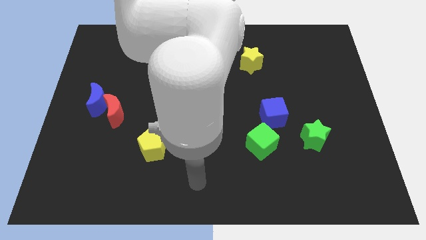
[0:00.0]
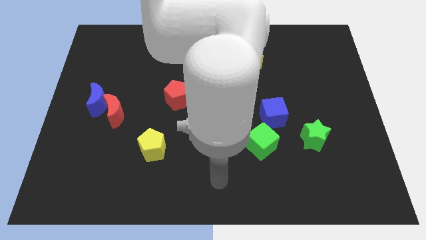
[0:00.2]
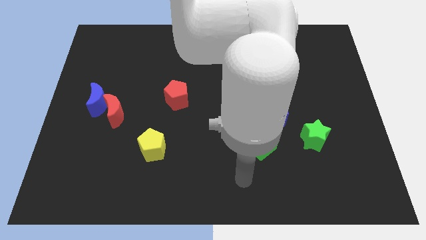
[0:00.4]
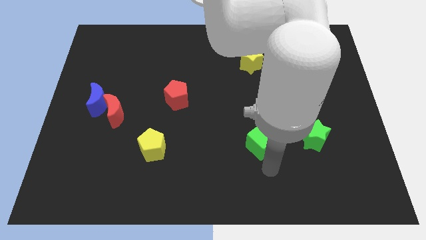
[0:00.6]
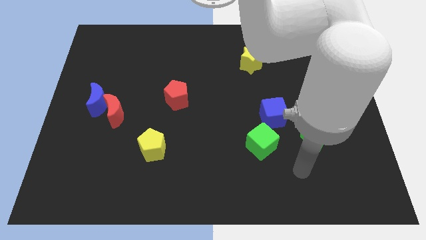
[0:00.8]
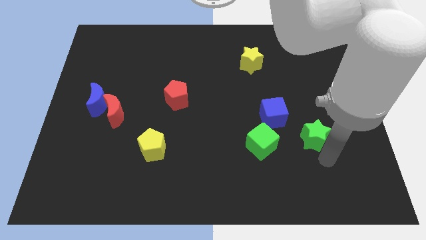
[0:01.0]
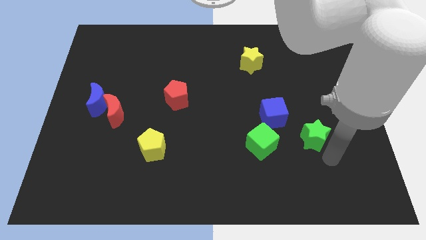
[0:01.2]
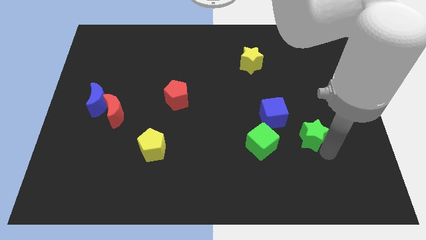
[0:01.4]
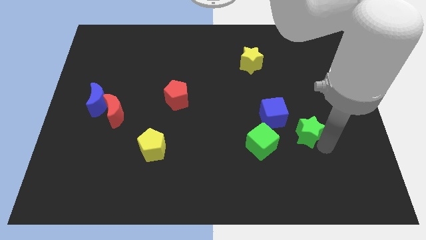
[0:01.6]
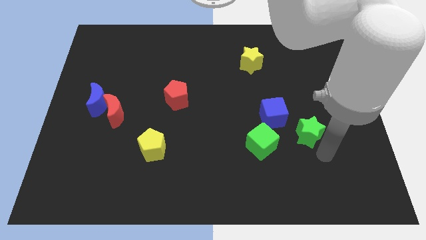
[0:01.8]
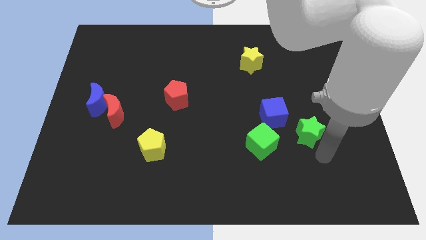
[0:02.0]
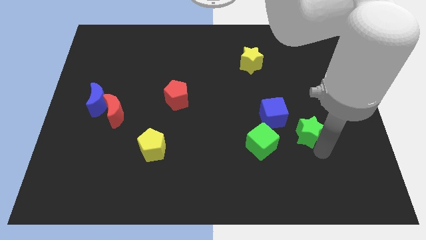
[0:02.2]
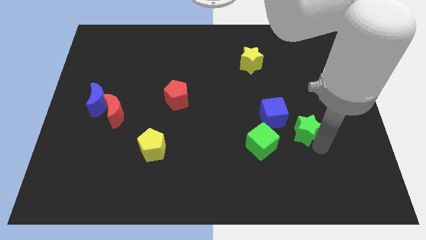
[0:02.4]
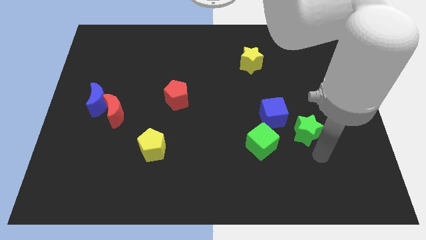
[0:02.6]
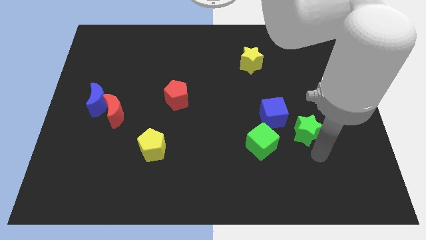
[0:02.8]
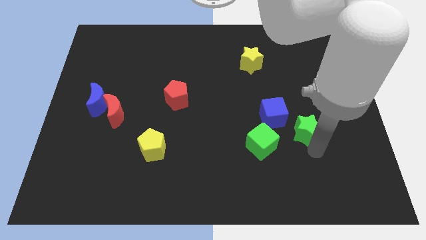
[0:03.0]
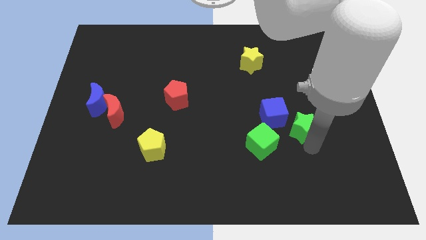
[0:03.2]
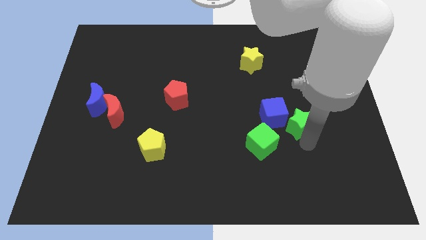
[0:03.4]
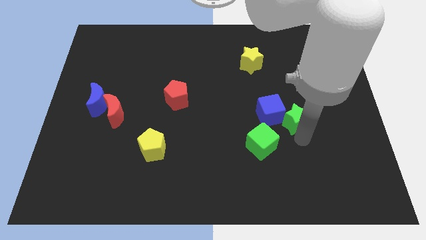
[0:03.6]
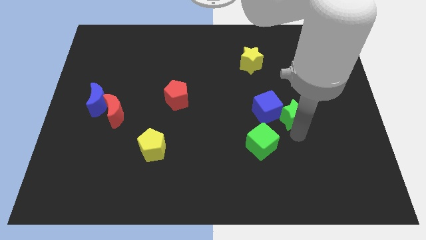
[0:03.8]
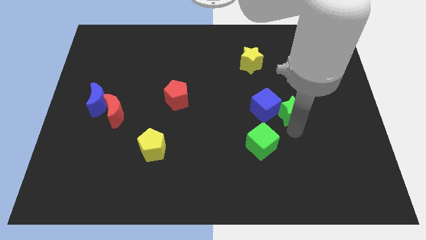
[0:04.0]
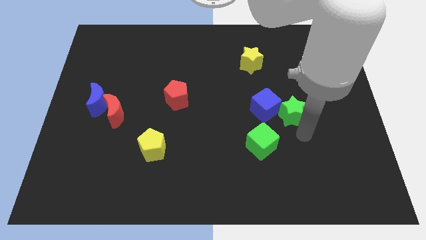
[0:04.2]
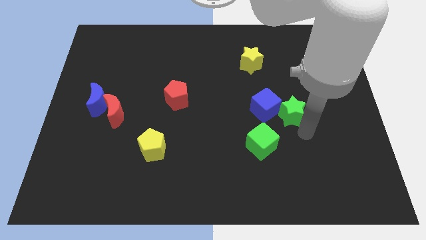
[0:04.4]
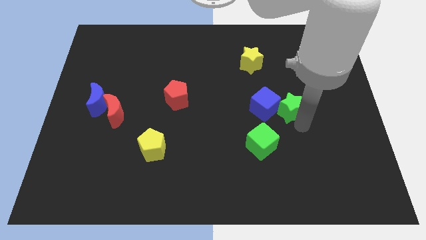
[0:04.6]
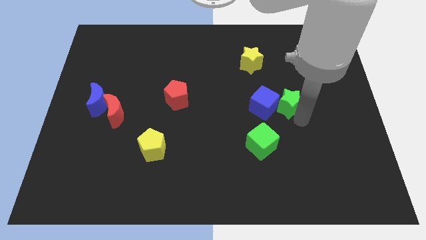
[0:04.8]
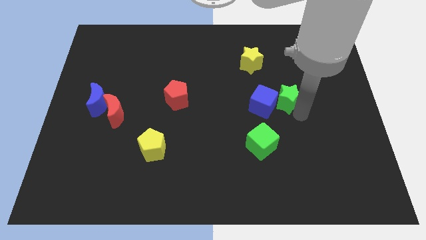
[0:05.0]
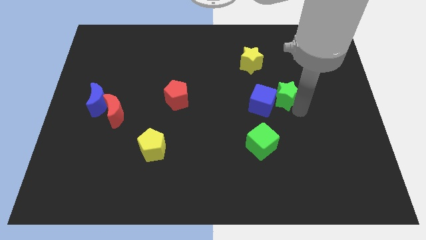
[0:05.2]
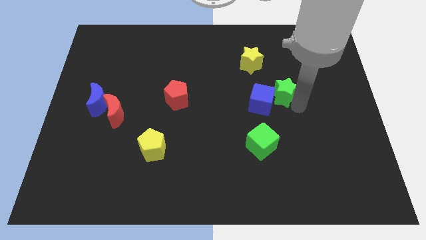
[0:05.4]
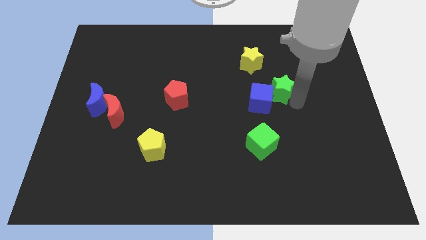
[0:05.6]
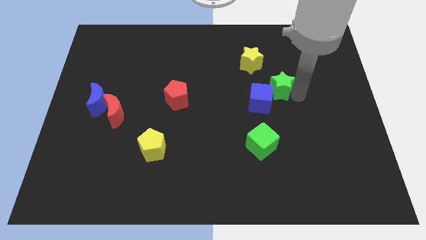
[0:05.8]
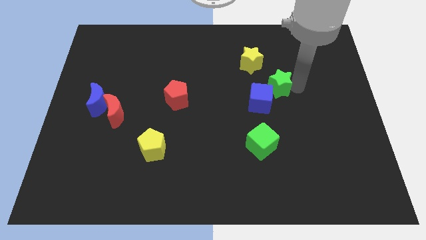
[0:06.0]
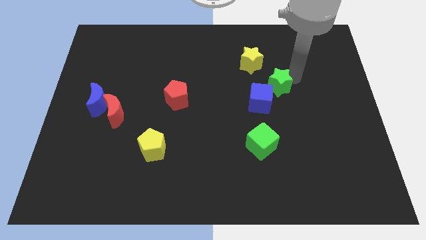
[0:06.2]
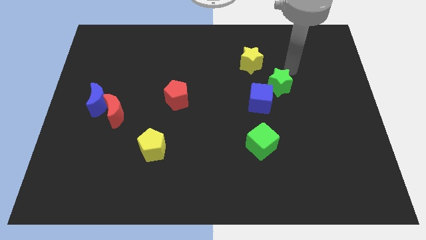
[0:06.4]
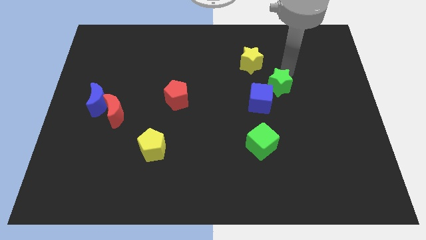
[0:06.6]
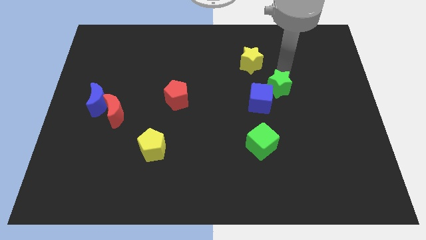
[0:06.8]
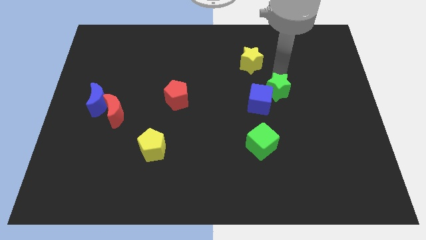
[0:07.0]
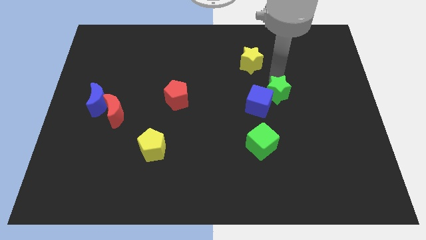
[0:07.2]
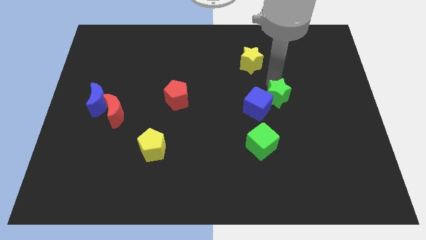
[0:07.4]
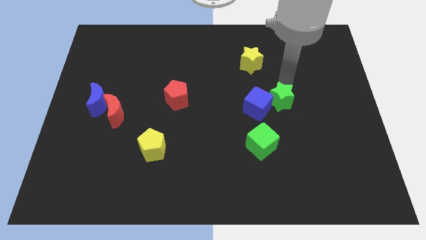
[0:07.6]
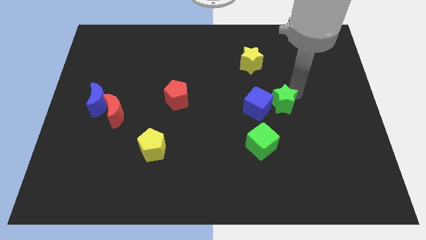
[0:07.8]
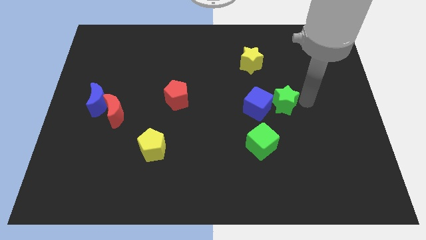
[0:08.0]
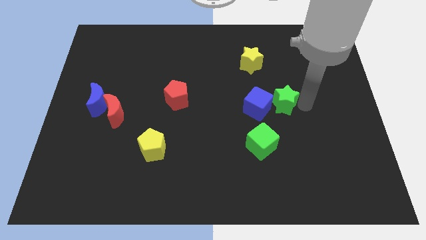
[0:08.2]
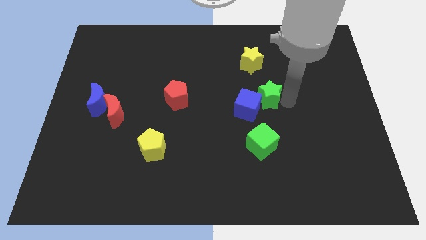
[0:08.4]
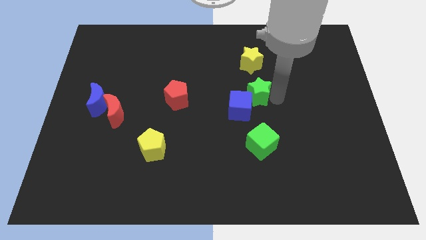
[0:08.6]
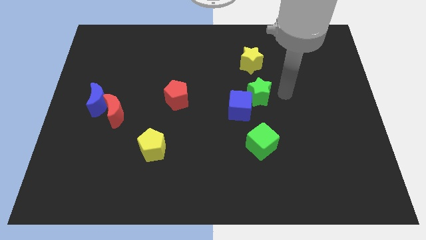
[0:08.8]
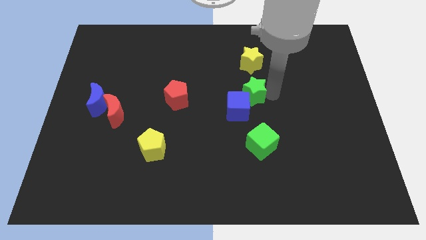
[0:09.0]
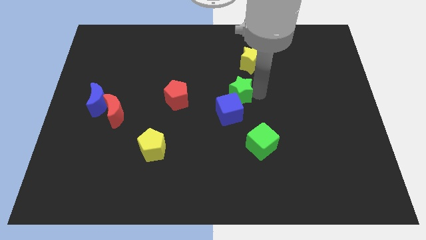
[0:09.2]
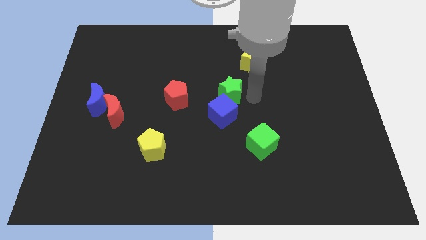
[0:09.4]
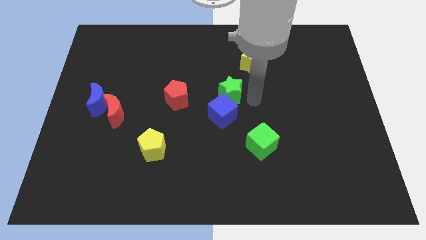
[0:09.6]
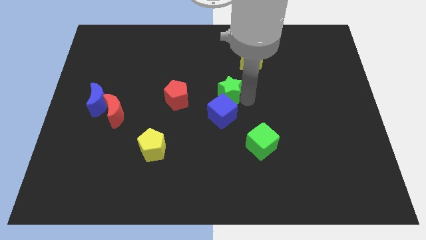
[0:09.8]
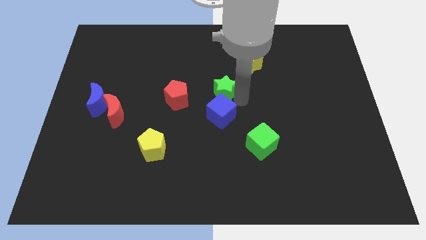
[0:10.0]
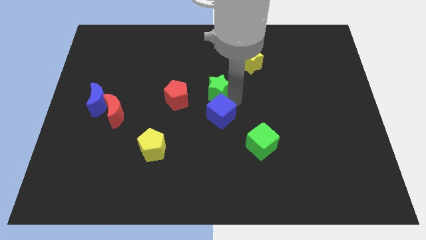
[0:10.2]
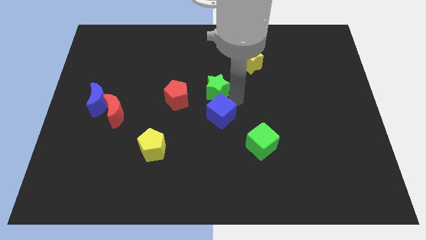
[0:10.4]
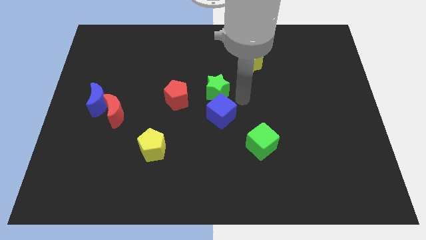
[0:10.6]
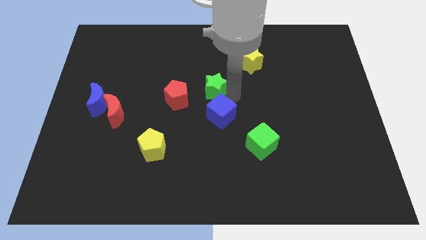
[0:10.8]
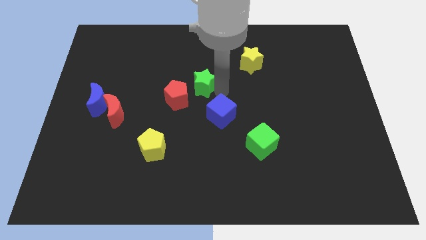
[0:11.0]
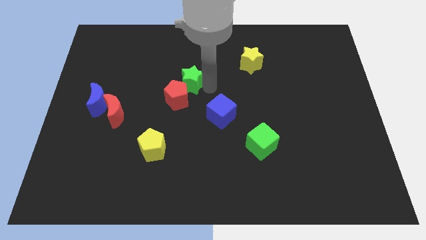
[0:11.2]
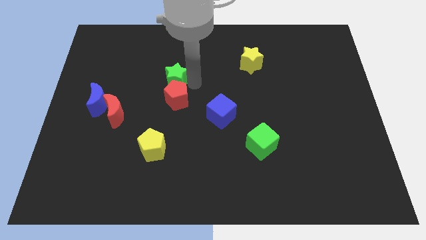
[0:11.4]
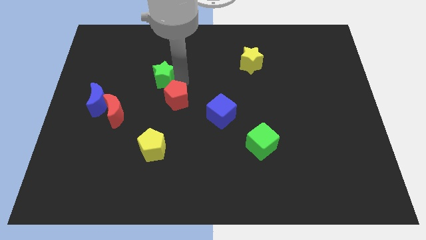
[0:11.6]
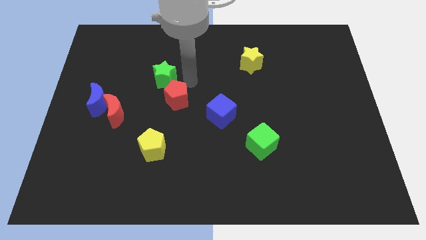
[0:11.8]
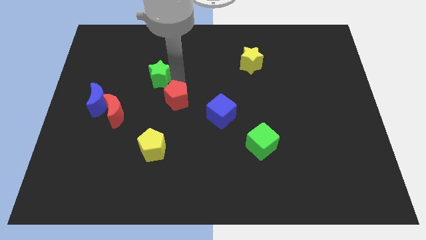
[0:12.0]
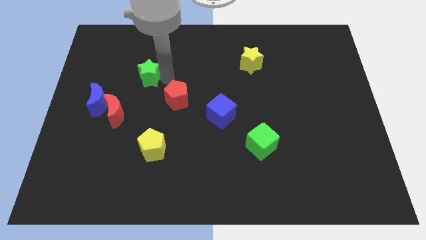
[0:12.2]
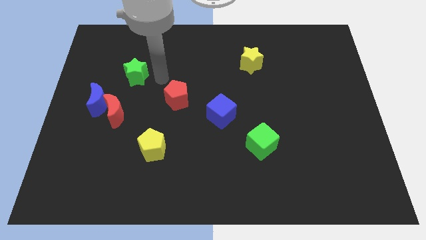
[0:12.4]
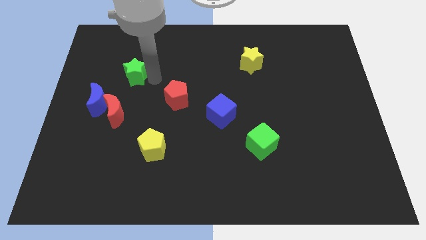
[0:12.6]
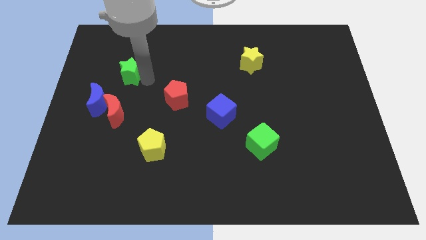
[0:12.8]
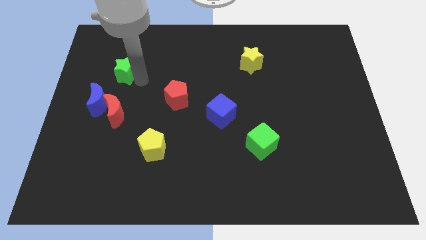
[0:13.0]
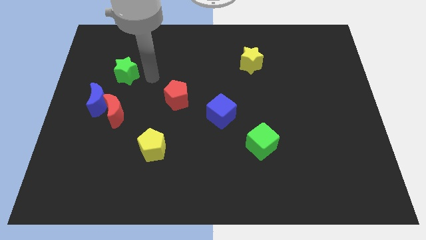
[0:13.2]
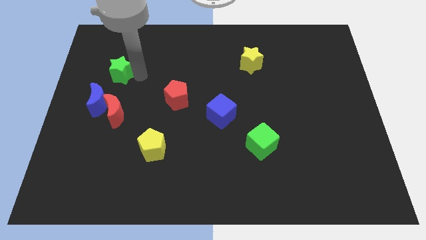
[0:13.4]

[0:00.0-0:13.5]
put the green star to the top of the blue moon
